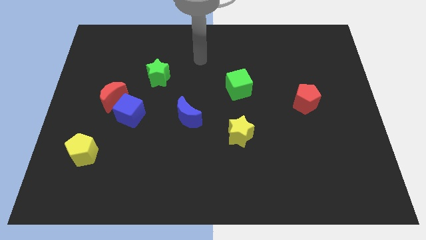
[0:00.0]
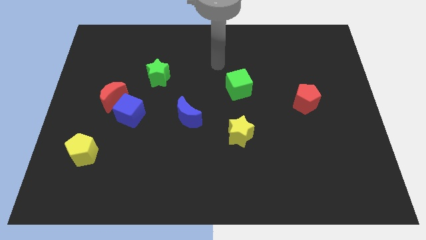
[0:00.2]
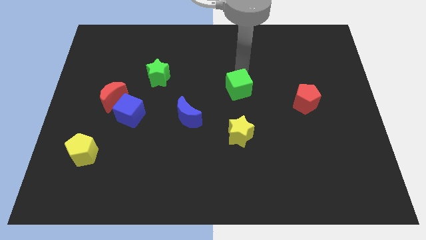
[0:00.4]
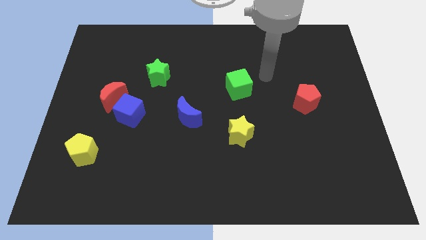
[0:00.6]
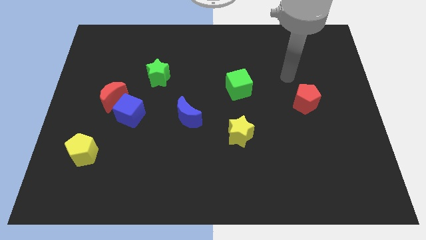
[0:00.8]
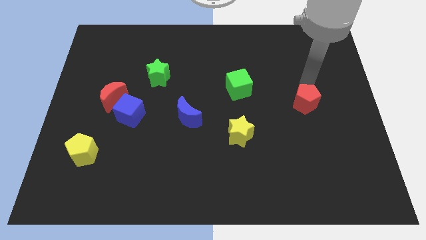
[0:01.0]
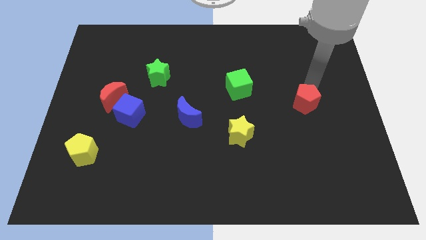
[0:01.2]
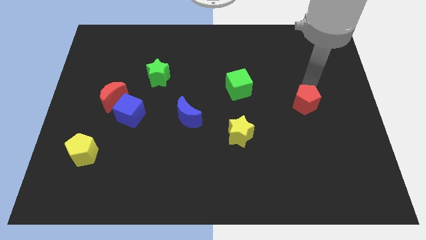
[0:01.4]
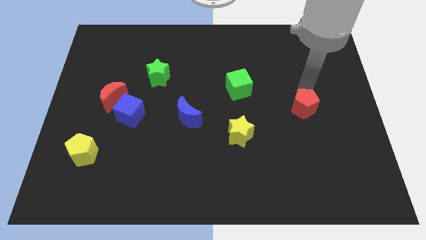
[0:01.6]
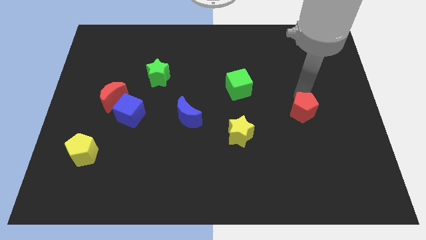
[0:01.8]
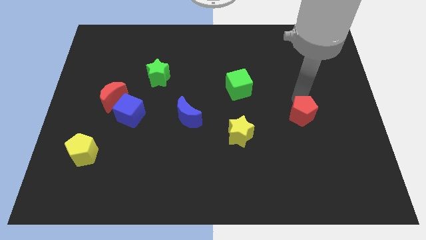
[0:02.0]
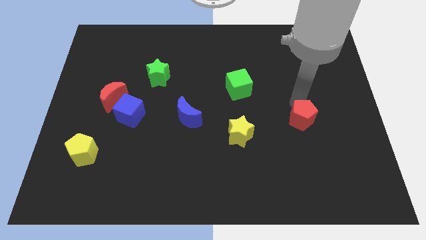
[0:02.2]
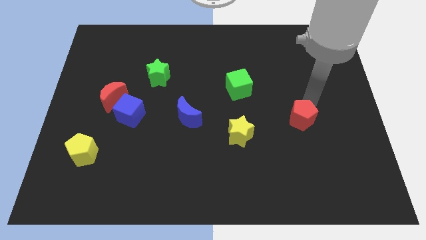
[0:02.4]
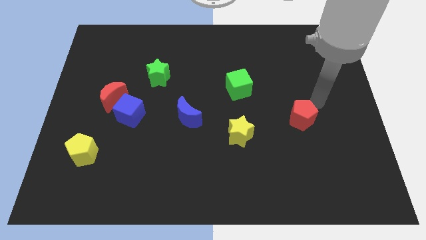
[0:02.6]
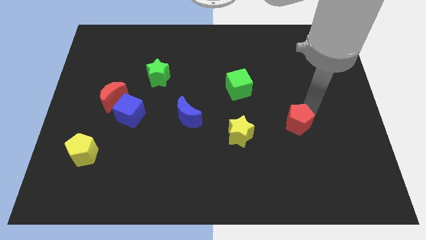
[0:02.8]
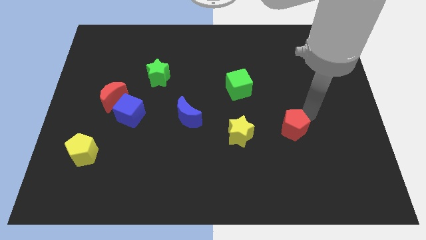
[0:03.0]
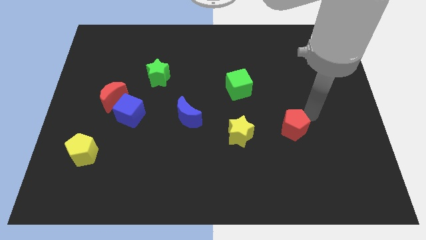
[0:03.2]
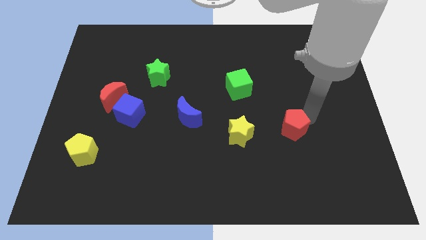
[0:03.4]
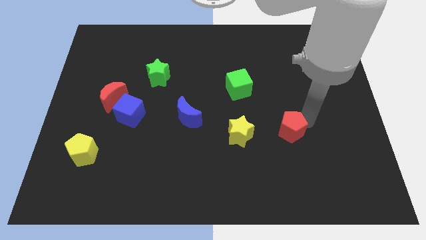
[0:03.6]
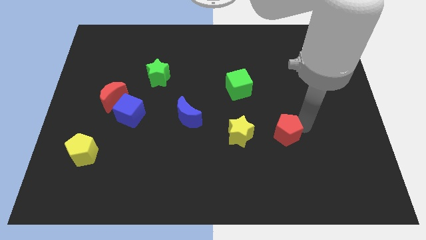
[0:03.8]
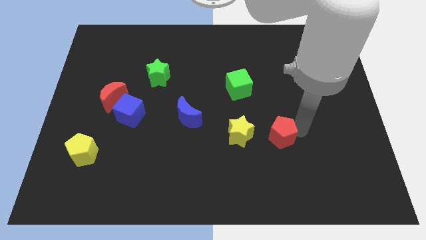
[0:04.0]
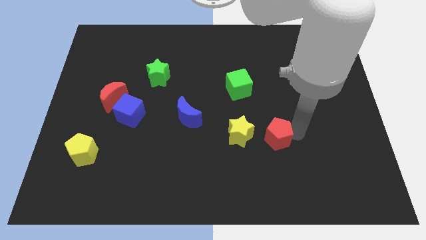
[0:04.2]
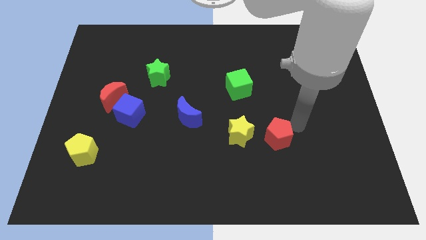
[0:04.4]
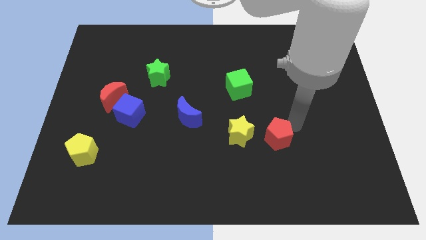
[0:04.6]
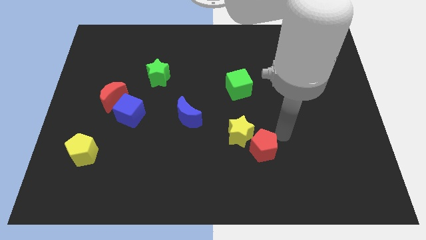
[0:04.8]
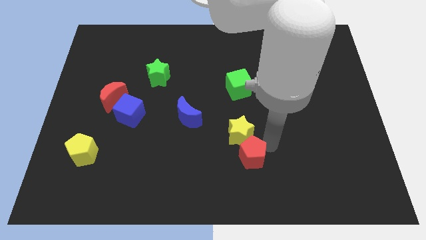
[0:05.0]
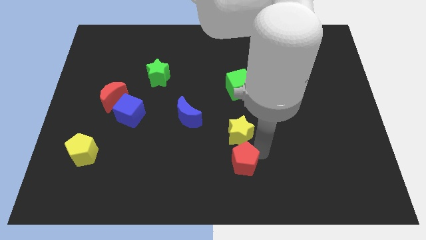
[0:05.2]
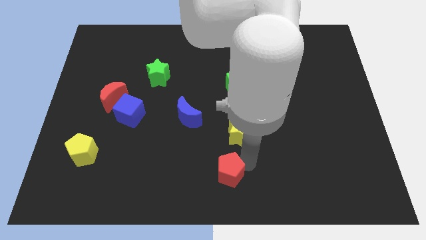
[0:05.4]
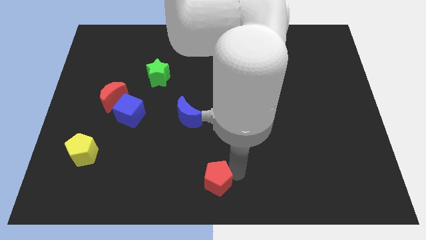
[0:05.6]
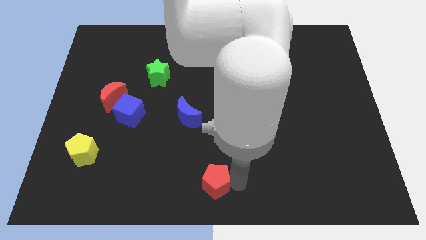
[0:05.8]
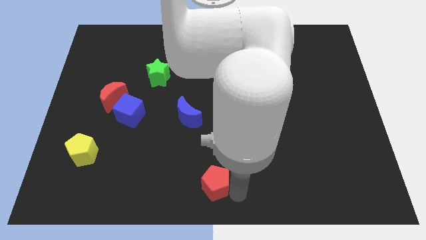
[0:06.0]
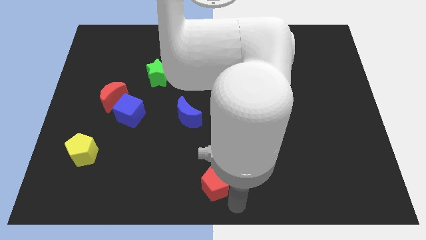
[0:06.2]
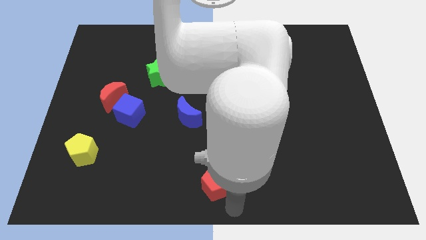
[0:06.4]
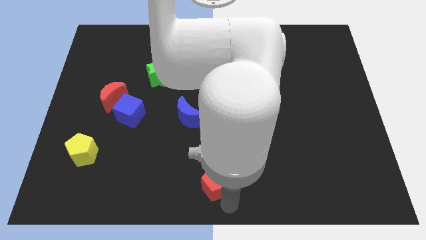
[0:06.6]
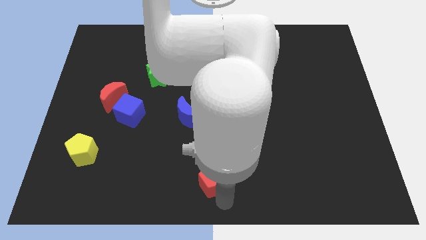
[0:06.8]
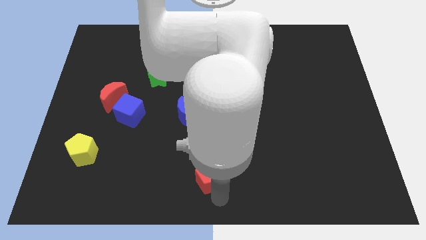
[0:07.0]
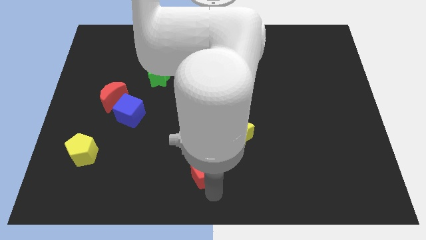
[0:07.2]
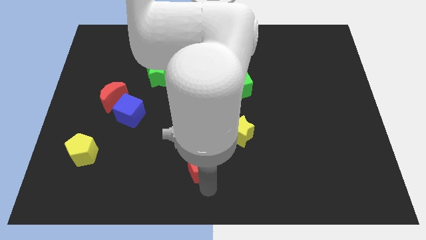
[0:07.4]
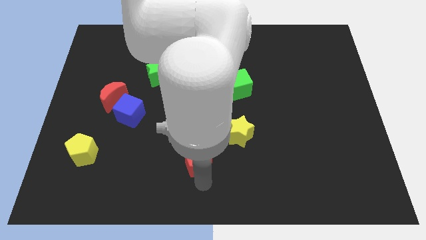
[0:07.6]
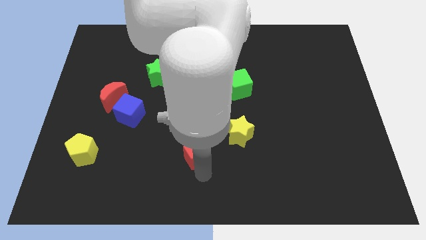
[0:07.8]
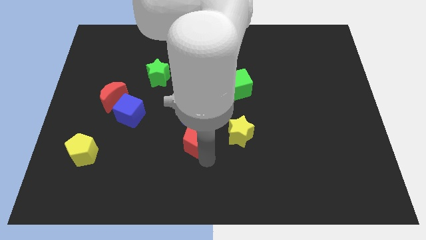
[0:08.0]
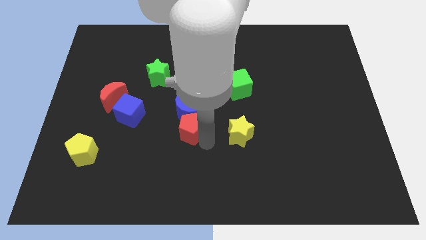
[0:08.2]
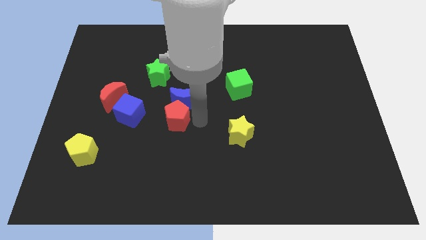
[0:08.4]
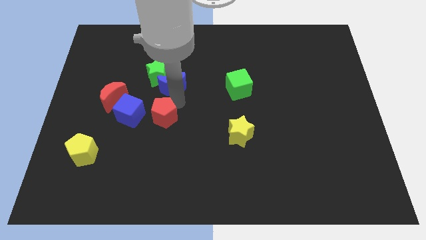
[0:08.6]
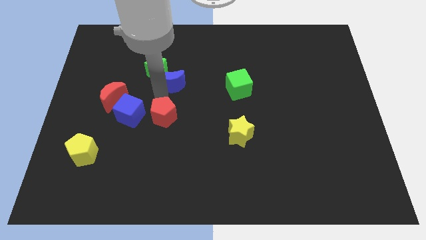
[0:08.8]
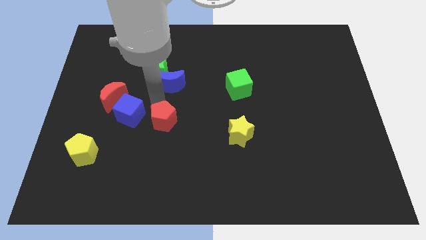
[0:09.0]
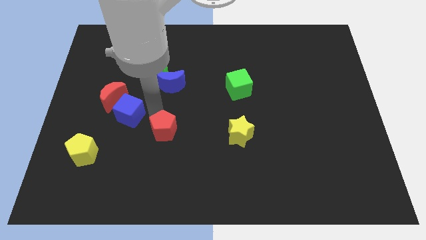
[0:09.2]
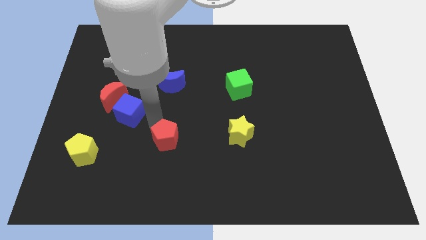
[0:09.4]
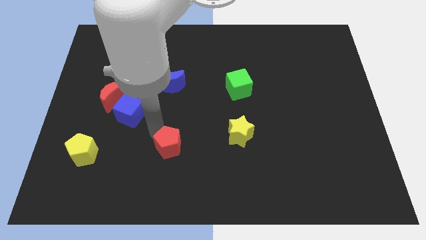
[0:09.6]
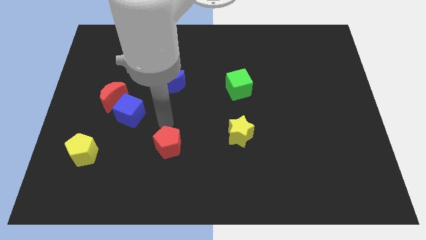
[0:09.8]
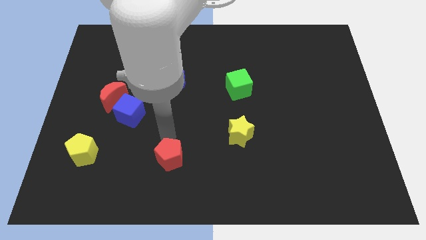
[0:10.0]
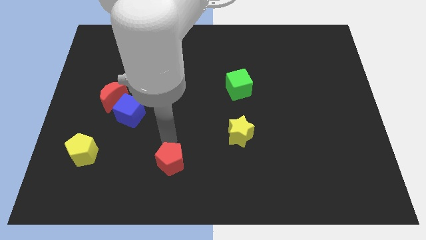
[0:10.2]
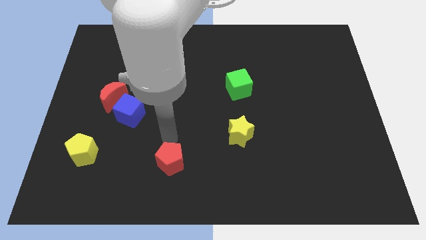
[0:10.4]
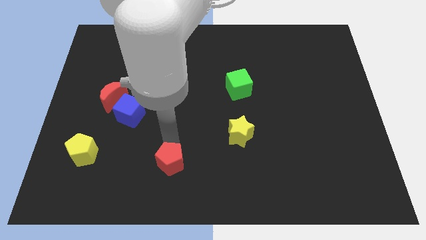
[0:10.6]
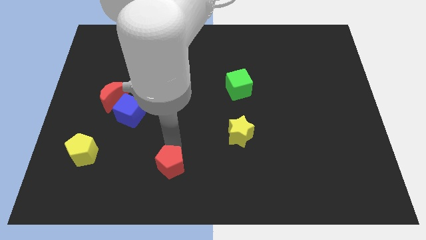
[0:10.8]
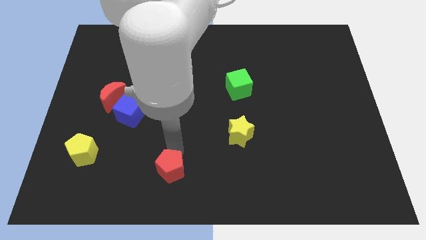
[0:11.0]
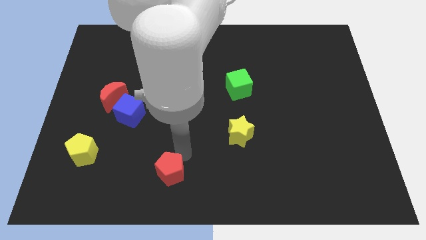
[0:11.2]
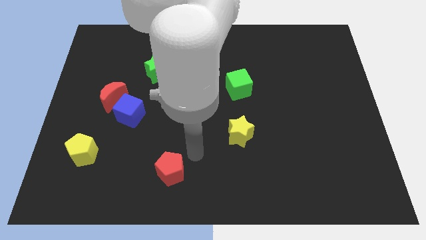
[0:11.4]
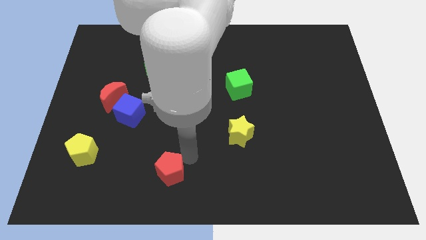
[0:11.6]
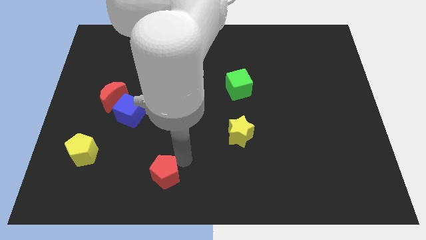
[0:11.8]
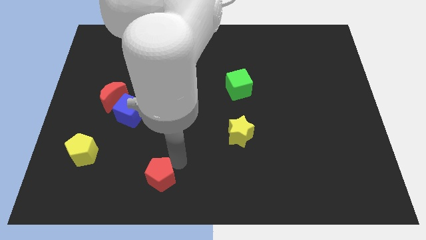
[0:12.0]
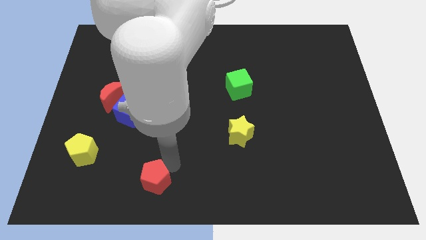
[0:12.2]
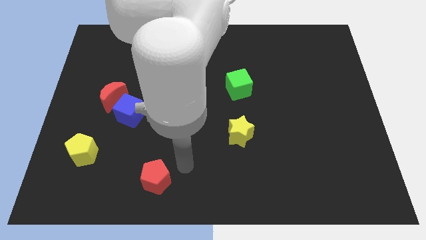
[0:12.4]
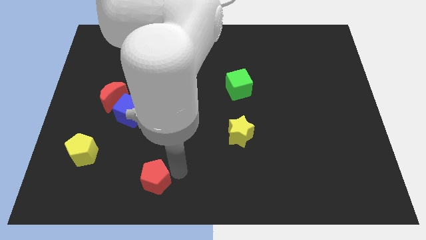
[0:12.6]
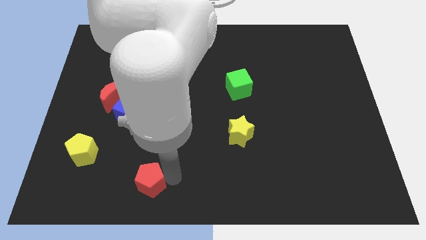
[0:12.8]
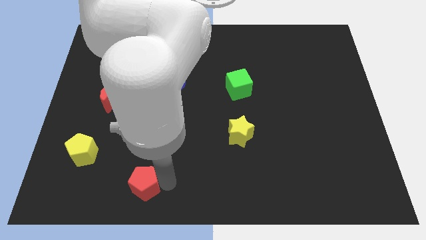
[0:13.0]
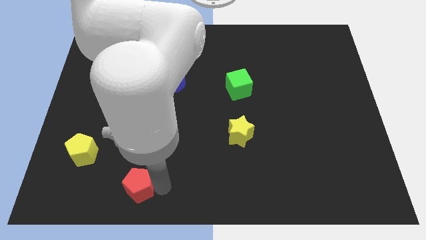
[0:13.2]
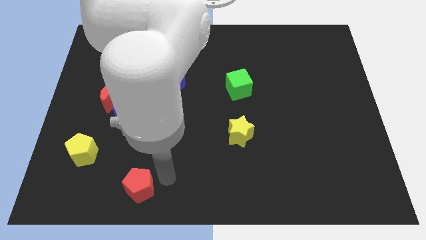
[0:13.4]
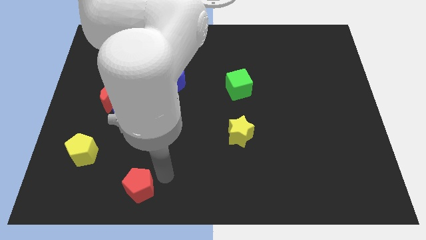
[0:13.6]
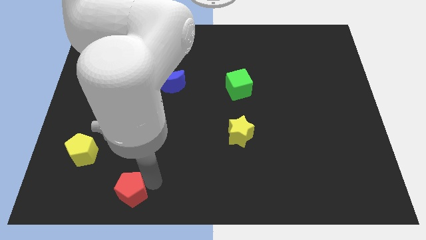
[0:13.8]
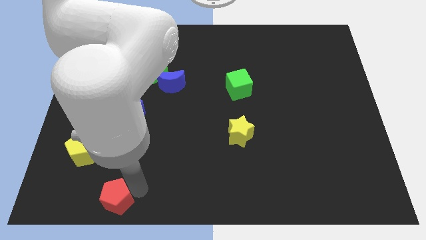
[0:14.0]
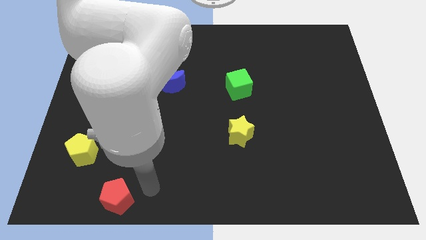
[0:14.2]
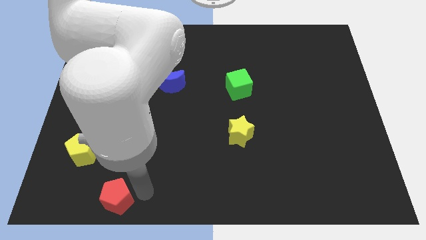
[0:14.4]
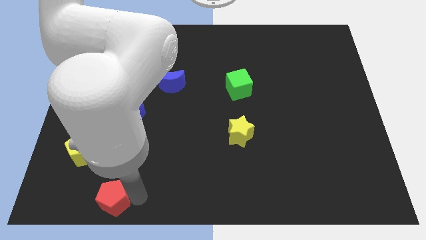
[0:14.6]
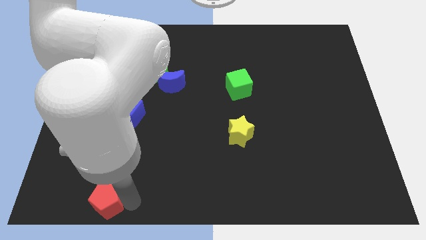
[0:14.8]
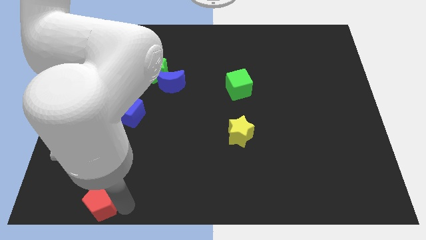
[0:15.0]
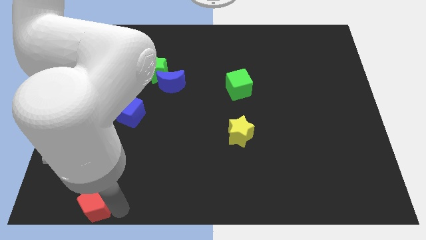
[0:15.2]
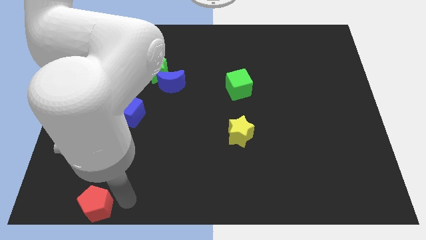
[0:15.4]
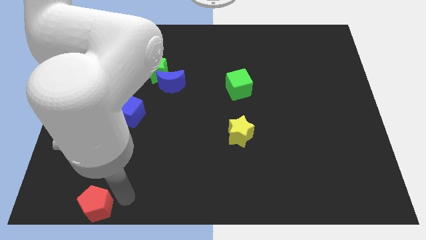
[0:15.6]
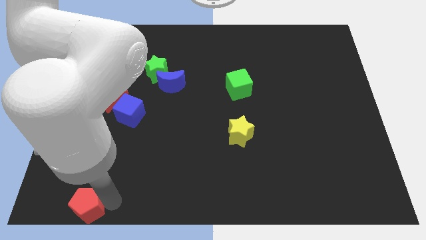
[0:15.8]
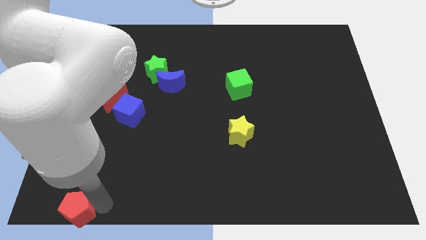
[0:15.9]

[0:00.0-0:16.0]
put the red pentagon to the bottom left corner
